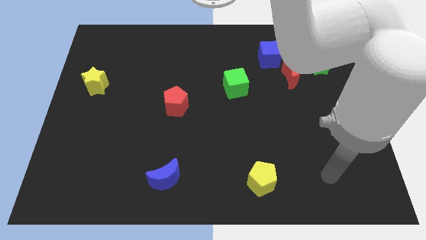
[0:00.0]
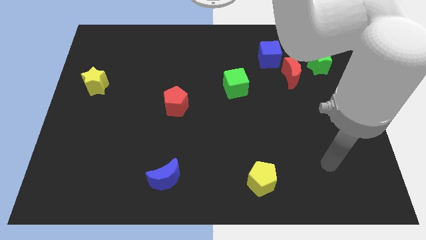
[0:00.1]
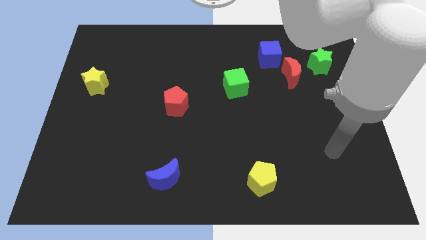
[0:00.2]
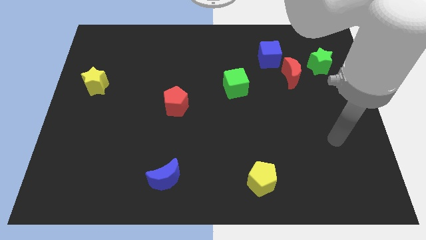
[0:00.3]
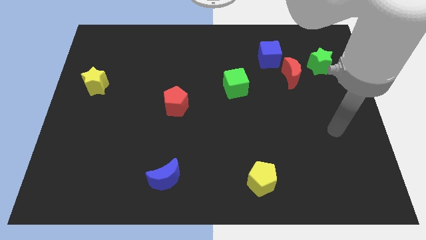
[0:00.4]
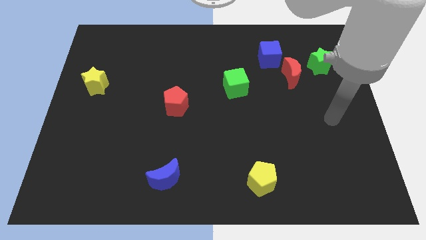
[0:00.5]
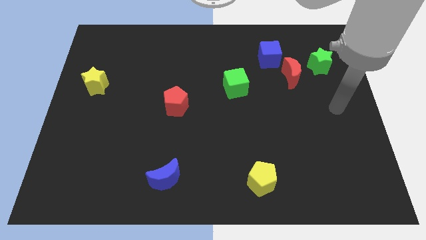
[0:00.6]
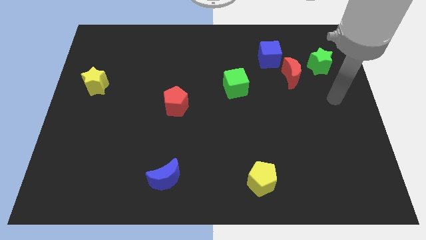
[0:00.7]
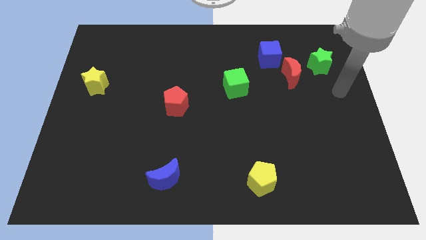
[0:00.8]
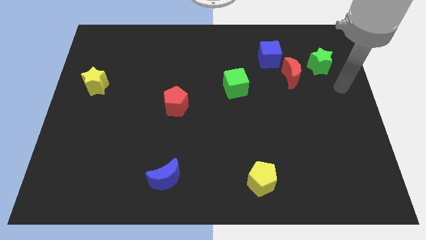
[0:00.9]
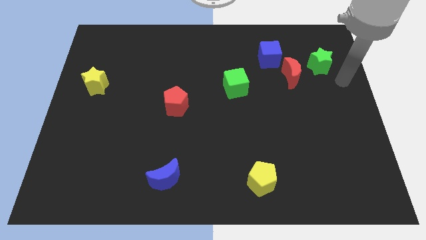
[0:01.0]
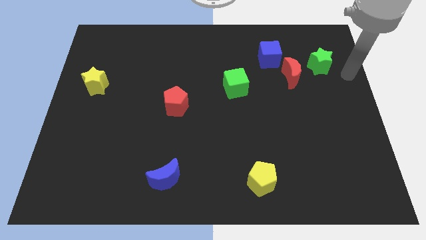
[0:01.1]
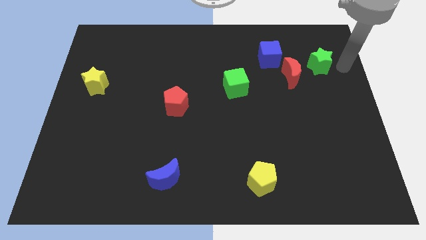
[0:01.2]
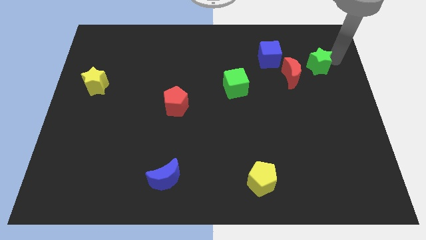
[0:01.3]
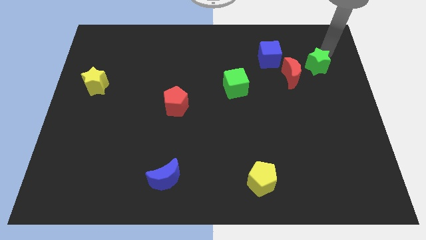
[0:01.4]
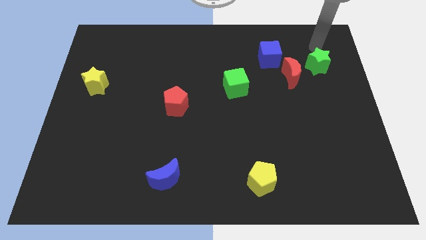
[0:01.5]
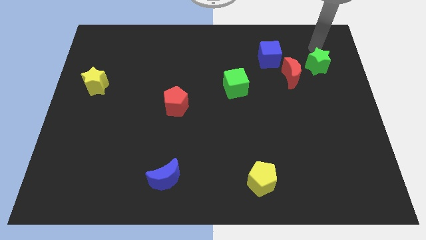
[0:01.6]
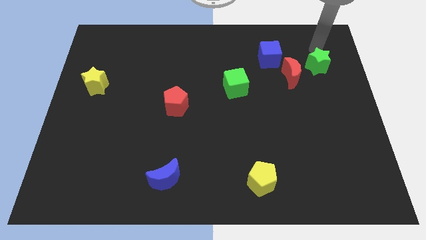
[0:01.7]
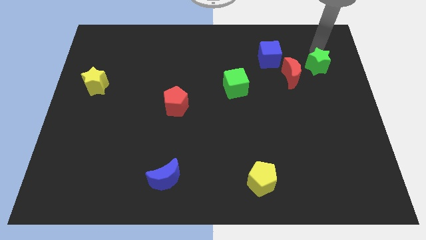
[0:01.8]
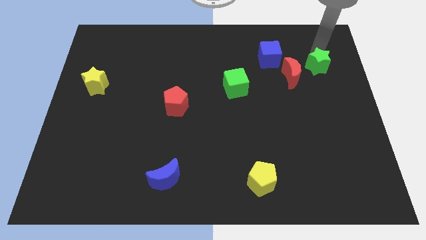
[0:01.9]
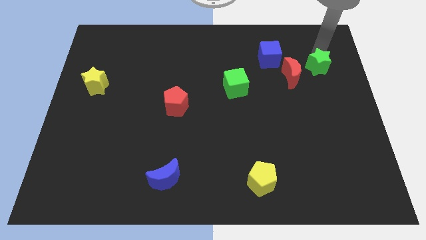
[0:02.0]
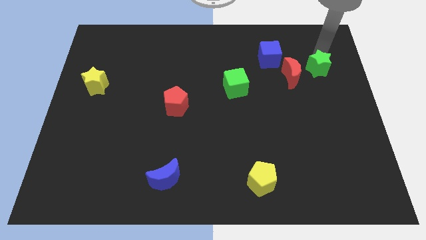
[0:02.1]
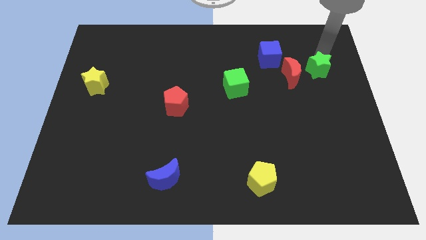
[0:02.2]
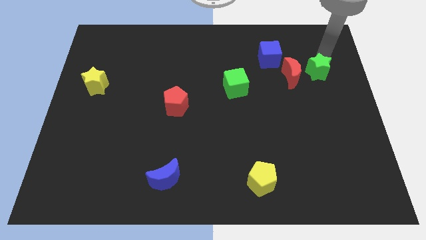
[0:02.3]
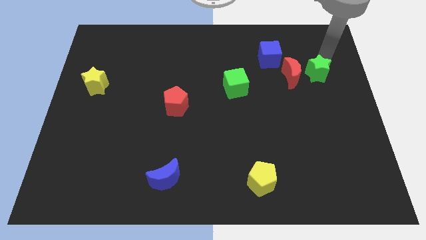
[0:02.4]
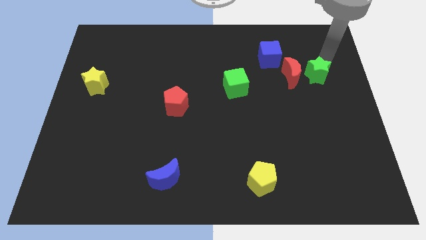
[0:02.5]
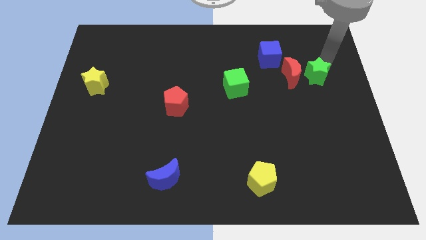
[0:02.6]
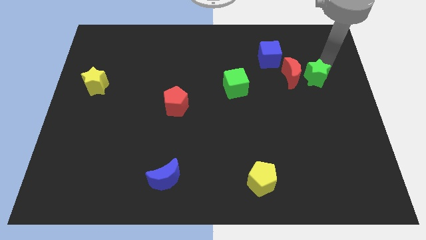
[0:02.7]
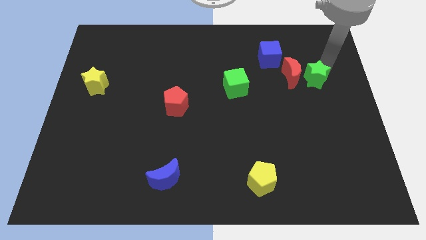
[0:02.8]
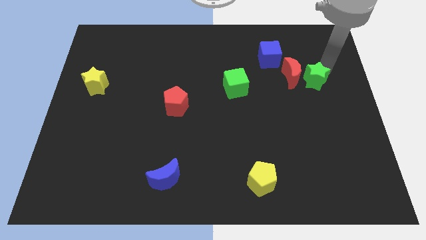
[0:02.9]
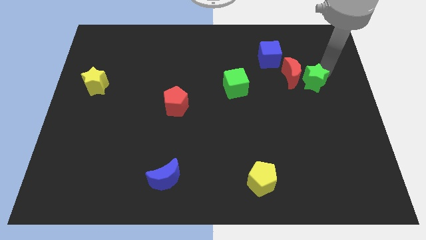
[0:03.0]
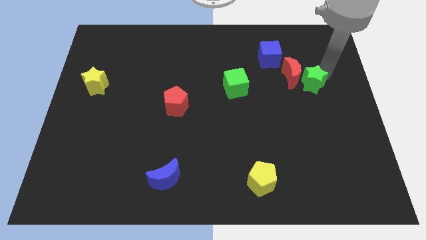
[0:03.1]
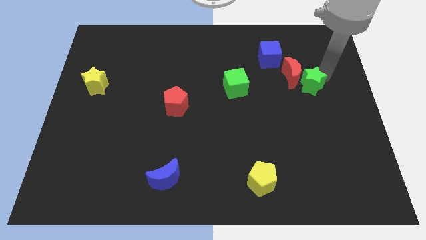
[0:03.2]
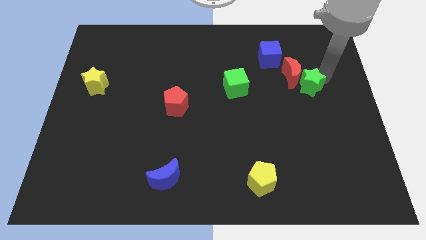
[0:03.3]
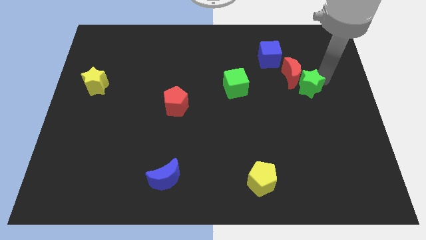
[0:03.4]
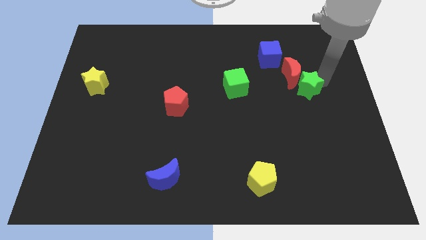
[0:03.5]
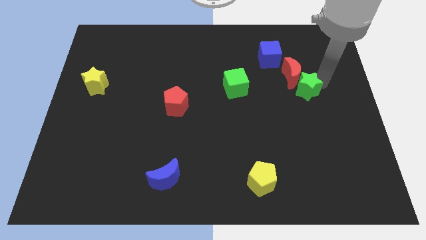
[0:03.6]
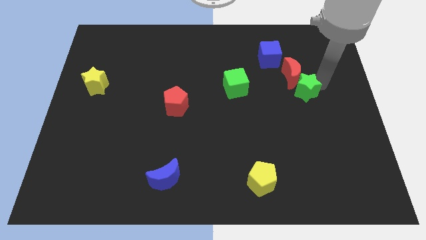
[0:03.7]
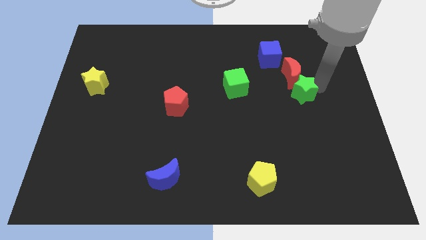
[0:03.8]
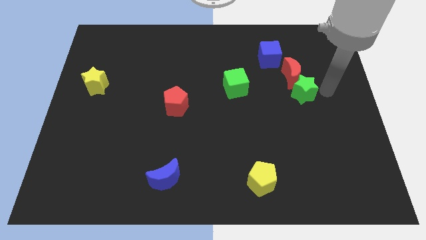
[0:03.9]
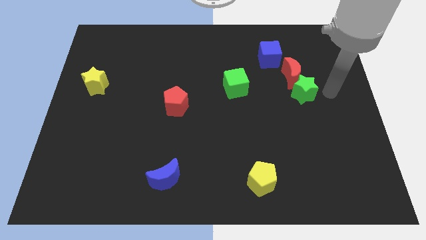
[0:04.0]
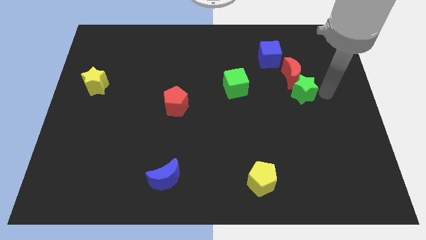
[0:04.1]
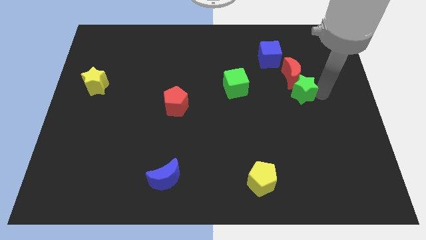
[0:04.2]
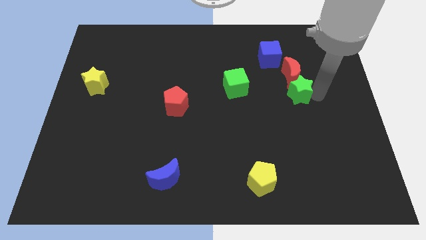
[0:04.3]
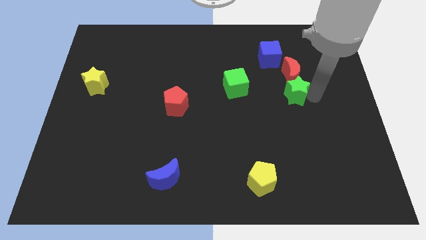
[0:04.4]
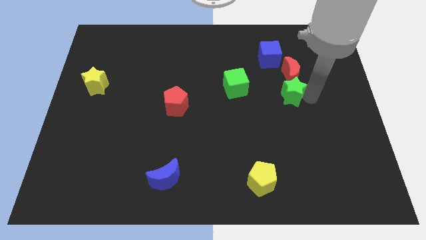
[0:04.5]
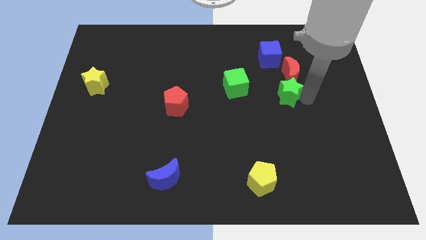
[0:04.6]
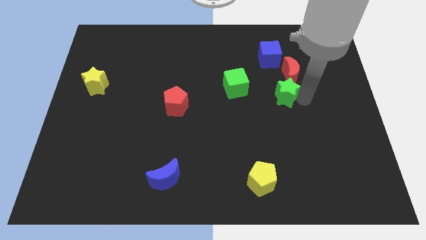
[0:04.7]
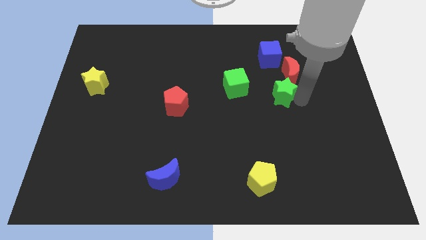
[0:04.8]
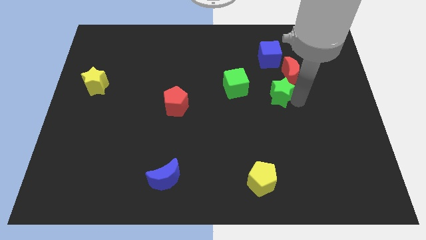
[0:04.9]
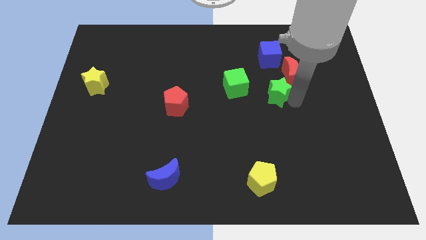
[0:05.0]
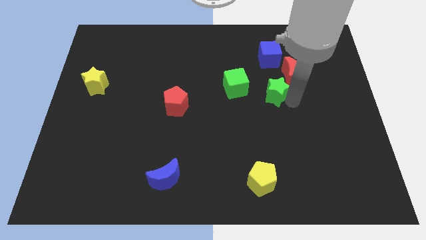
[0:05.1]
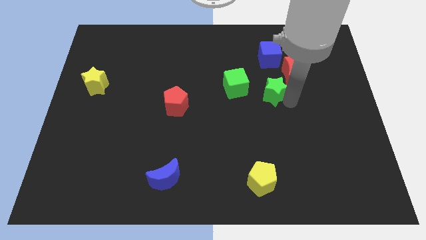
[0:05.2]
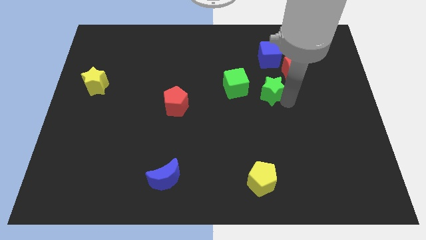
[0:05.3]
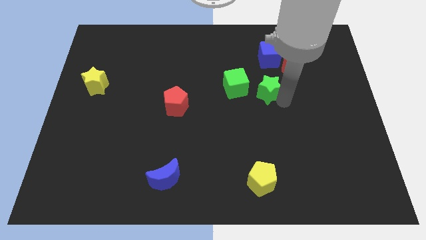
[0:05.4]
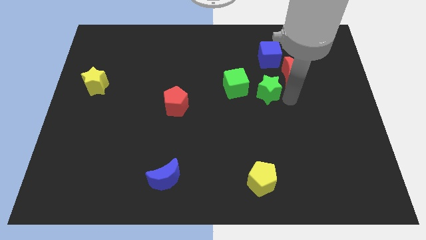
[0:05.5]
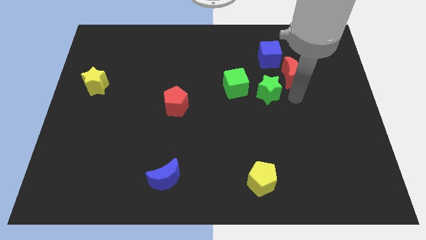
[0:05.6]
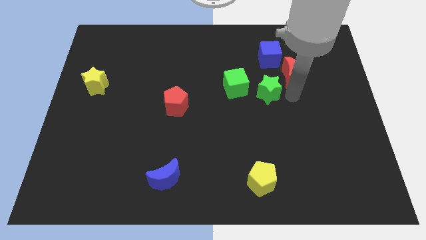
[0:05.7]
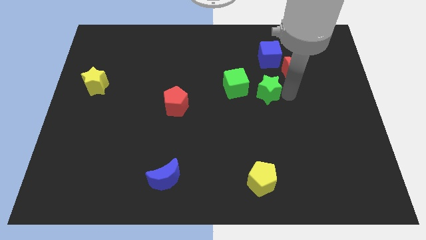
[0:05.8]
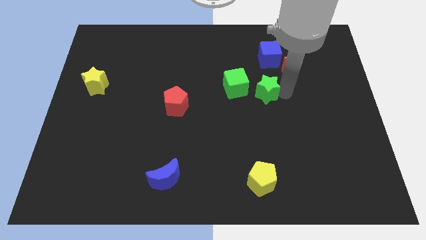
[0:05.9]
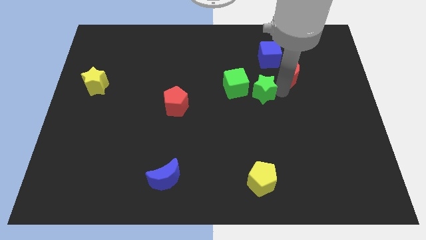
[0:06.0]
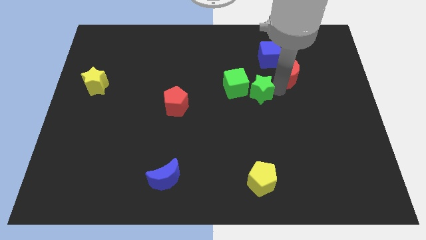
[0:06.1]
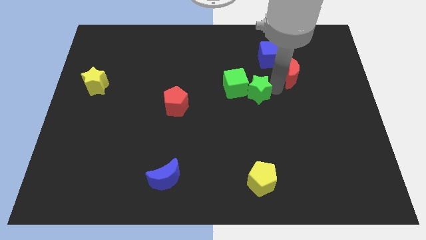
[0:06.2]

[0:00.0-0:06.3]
push the green star to the green cube

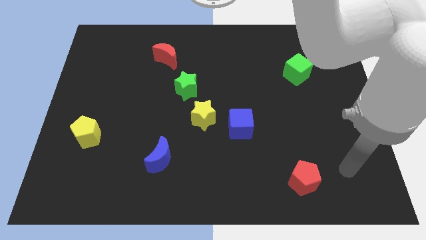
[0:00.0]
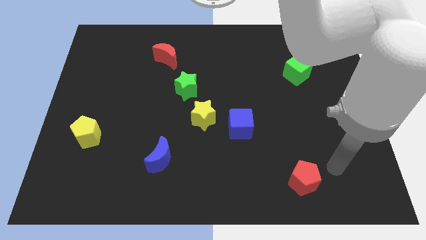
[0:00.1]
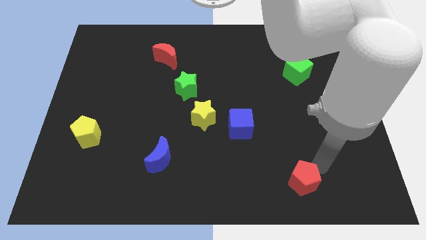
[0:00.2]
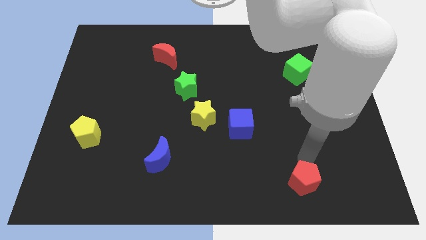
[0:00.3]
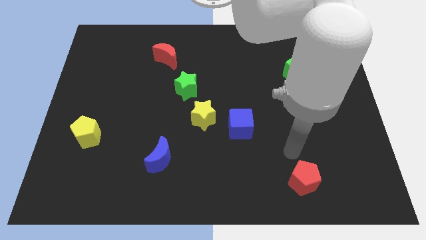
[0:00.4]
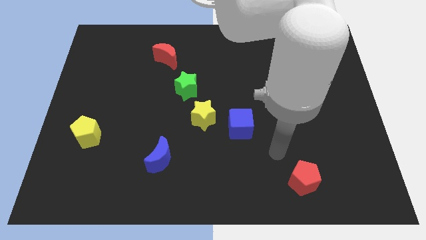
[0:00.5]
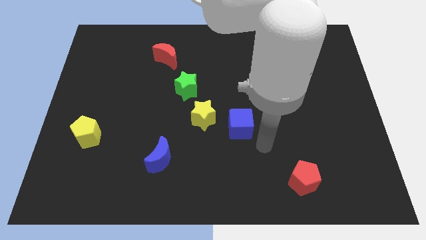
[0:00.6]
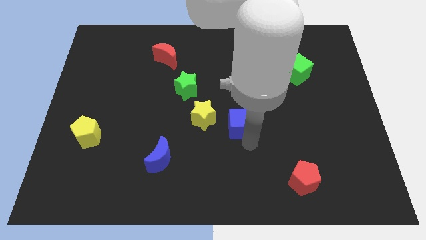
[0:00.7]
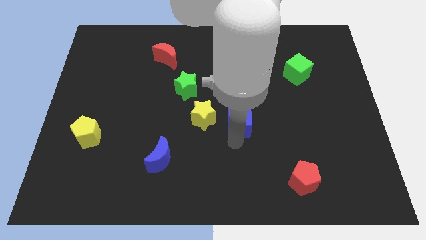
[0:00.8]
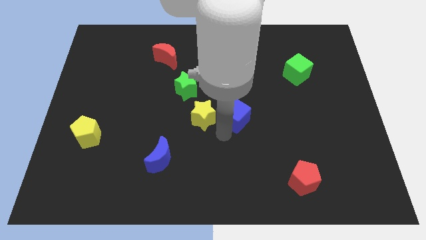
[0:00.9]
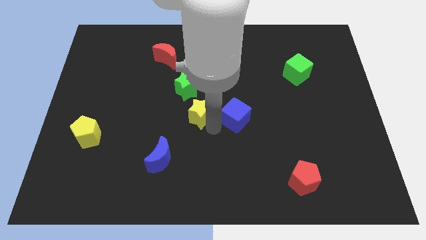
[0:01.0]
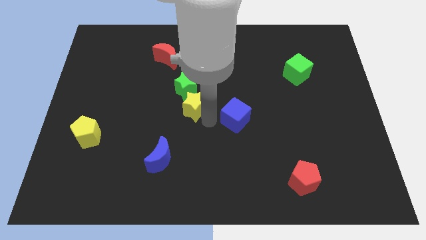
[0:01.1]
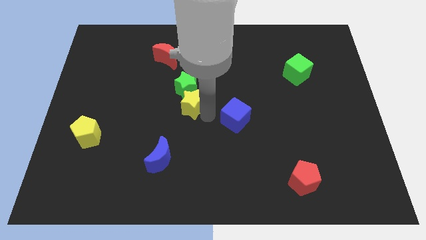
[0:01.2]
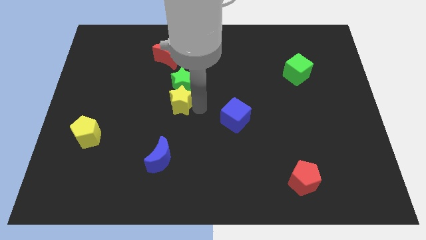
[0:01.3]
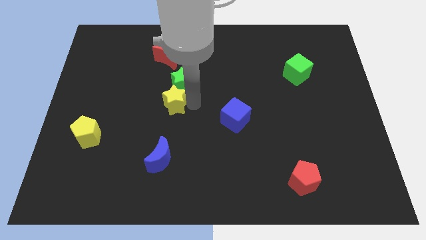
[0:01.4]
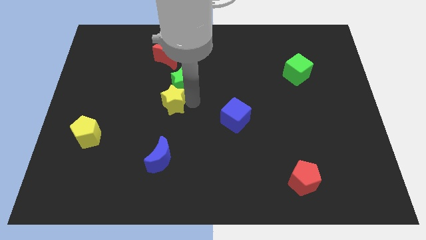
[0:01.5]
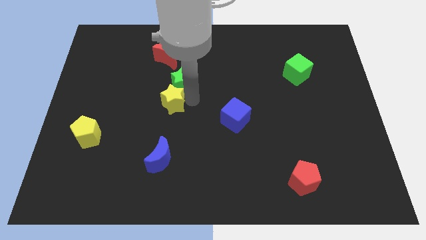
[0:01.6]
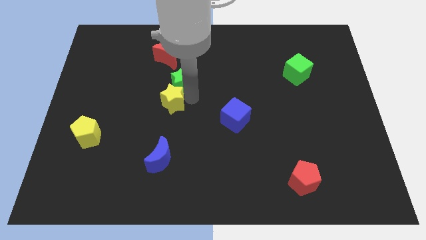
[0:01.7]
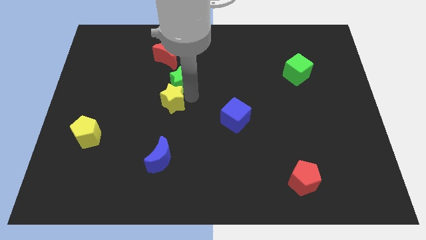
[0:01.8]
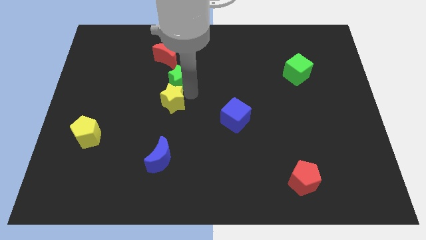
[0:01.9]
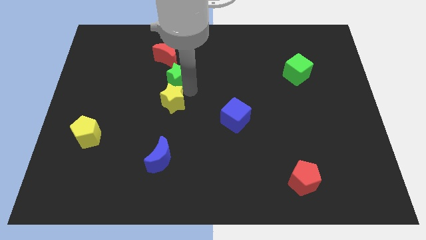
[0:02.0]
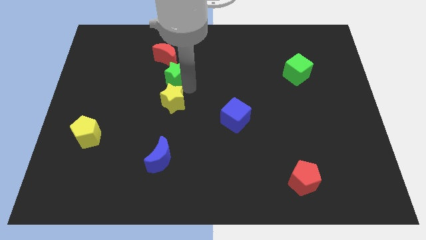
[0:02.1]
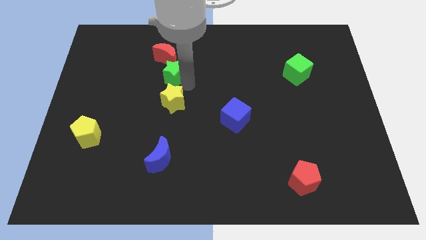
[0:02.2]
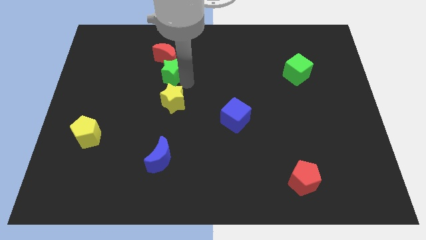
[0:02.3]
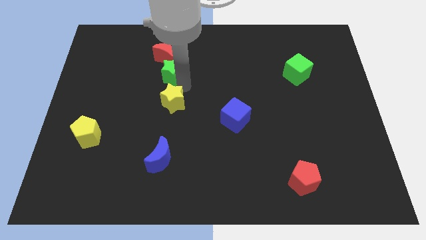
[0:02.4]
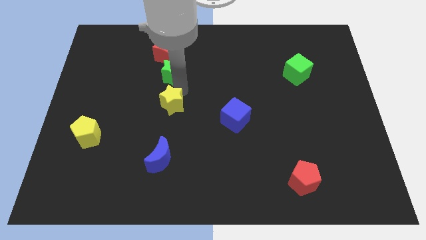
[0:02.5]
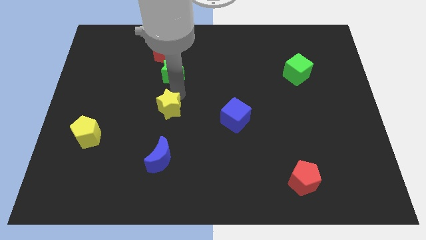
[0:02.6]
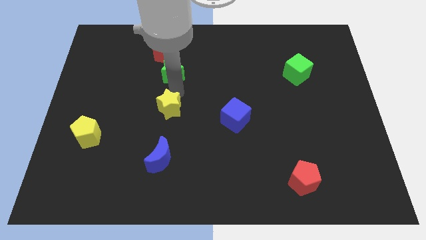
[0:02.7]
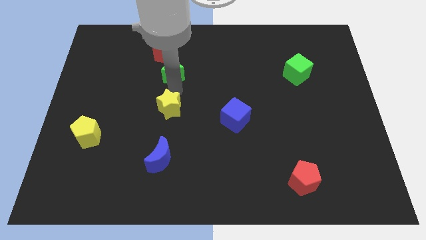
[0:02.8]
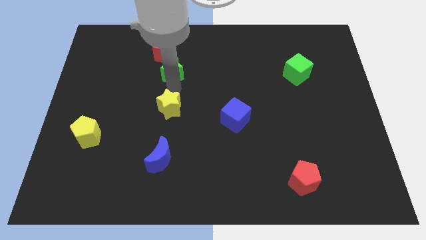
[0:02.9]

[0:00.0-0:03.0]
slide the green star next to the red moon
